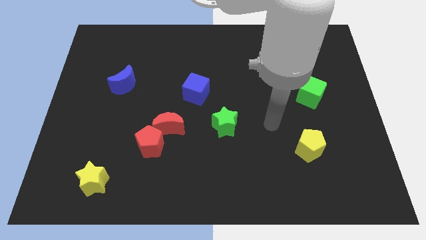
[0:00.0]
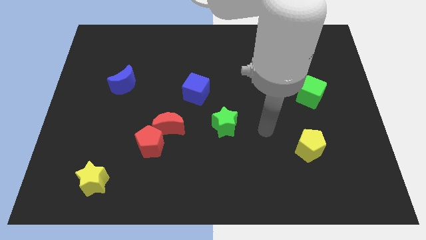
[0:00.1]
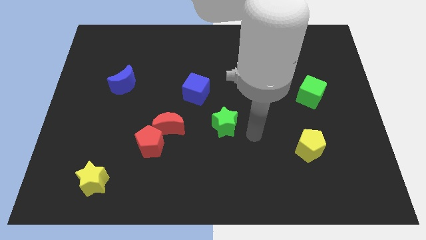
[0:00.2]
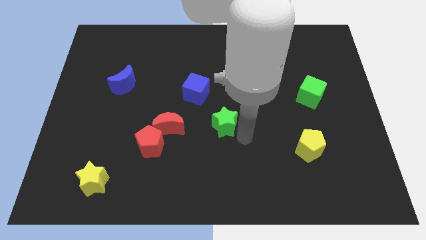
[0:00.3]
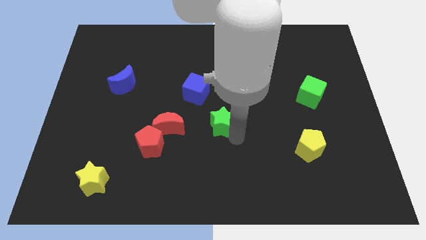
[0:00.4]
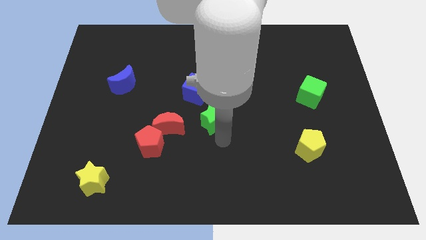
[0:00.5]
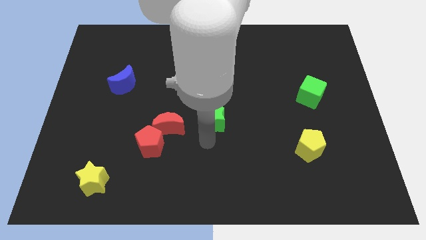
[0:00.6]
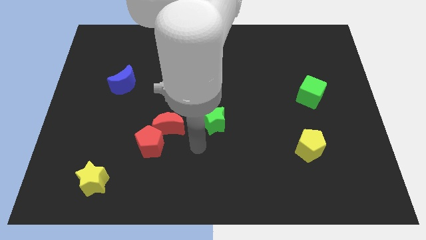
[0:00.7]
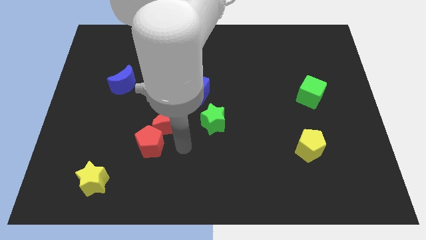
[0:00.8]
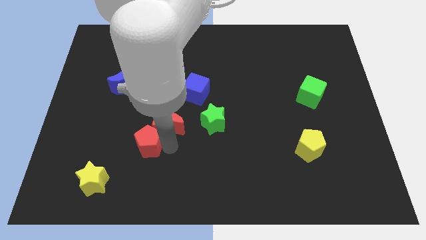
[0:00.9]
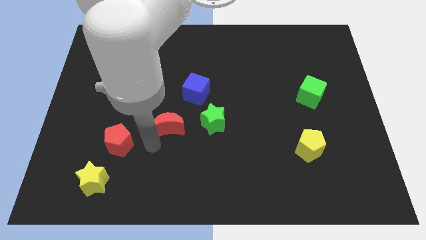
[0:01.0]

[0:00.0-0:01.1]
separate the red moon from the red pentagon

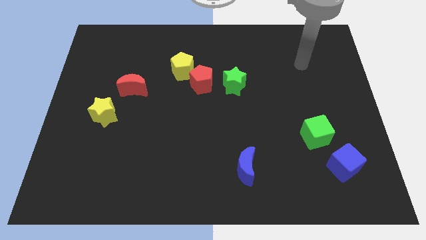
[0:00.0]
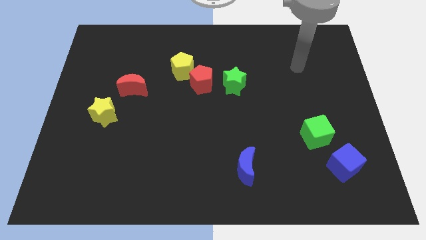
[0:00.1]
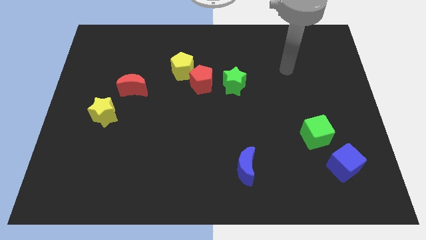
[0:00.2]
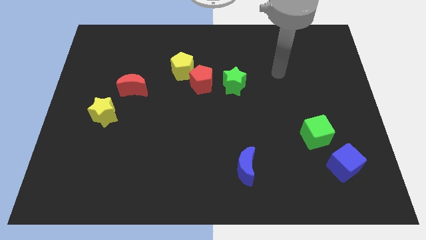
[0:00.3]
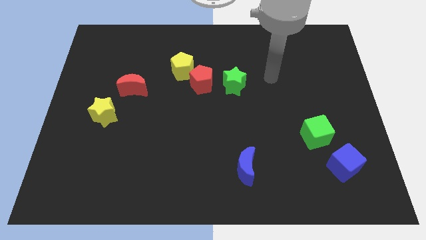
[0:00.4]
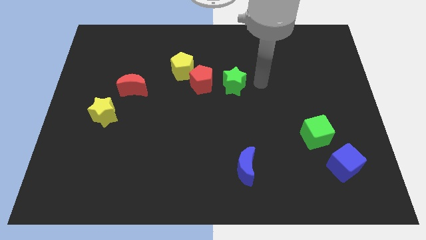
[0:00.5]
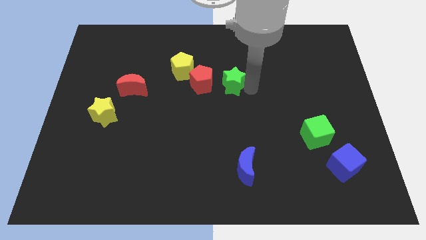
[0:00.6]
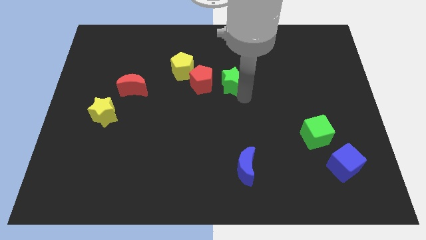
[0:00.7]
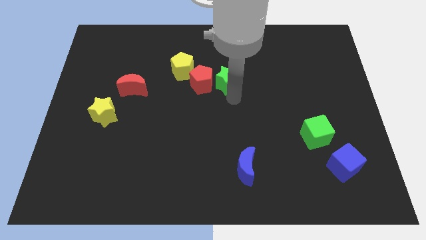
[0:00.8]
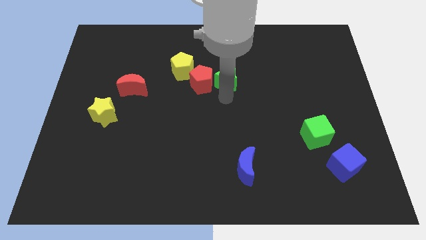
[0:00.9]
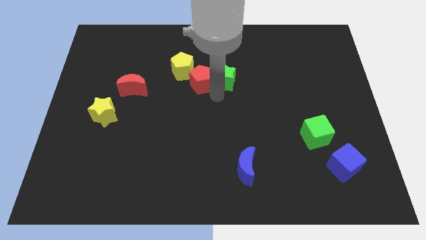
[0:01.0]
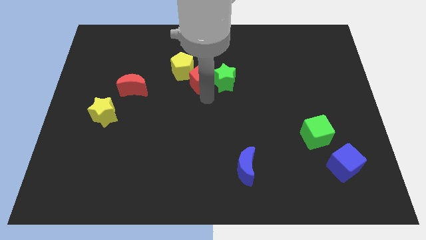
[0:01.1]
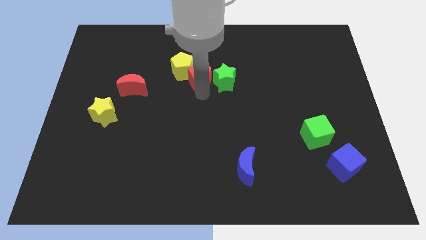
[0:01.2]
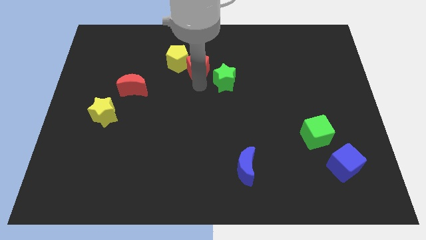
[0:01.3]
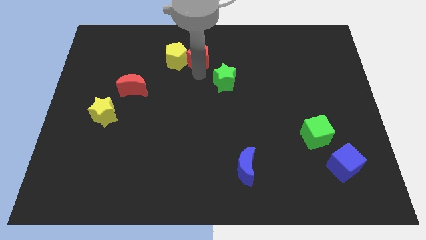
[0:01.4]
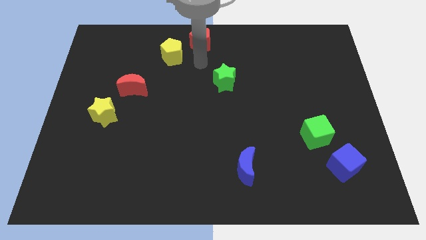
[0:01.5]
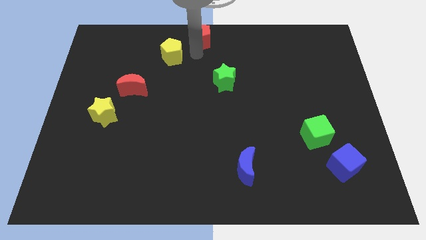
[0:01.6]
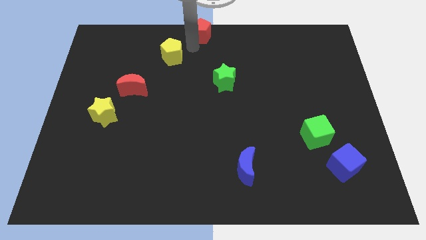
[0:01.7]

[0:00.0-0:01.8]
move the yellow pentagon away from the red pentagon

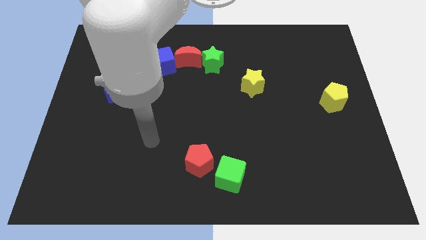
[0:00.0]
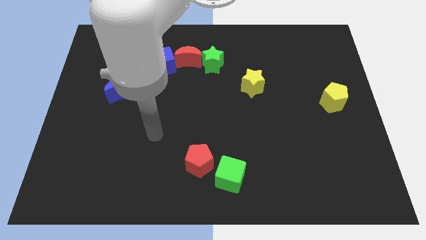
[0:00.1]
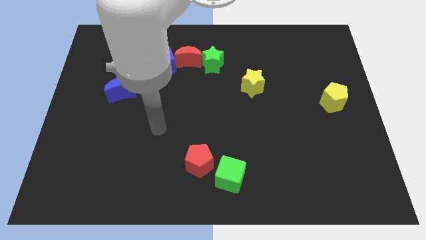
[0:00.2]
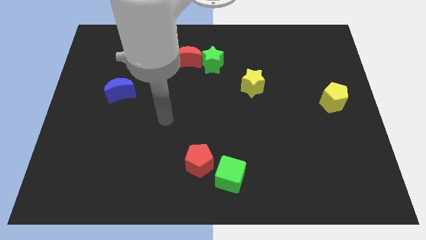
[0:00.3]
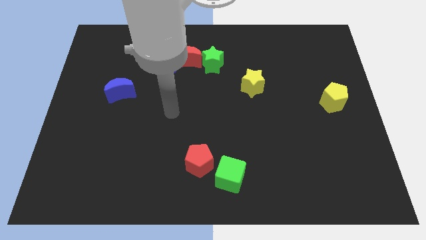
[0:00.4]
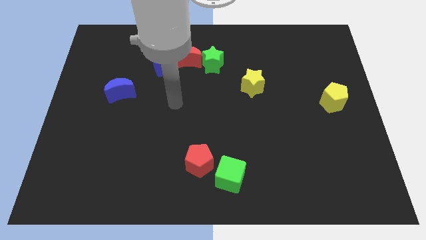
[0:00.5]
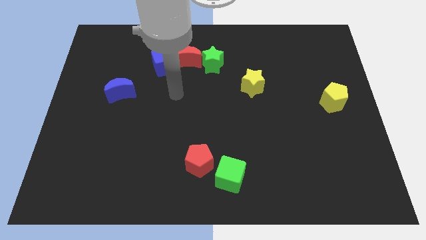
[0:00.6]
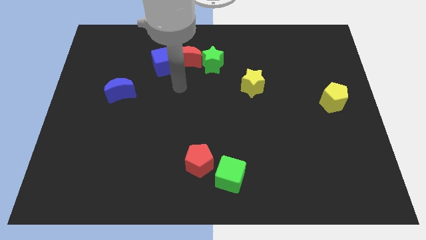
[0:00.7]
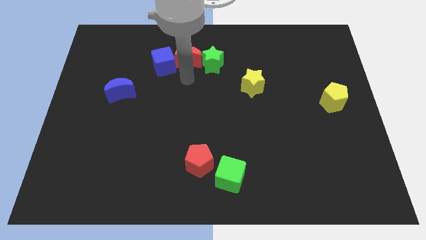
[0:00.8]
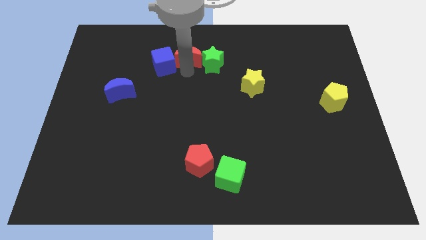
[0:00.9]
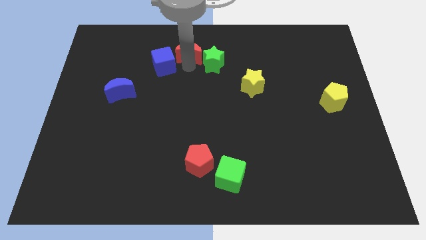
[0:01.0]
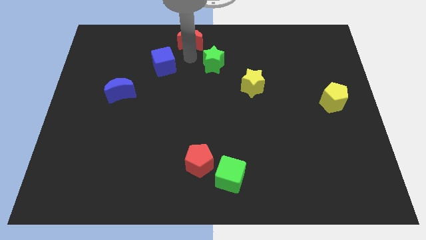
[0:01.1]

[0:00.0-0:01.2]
pull the green star apart from the red moon

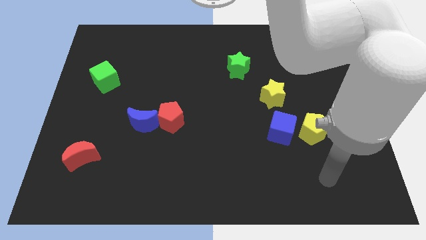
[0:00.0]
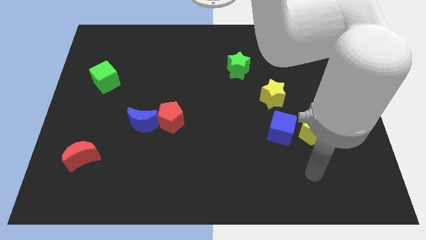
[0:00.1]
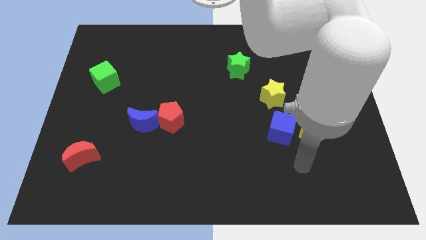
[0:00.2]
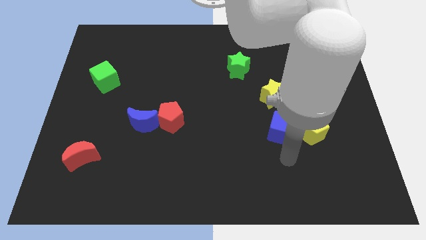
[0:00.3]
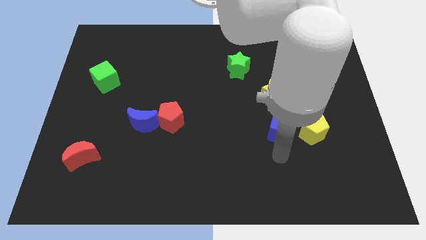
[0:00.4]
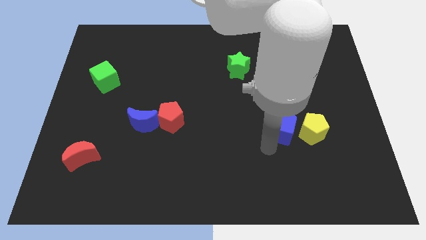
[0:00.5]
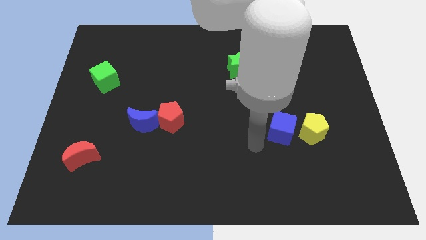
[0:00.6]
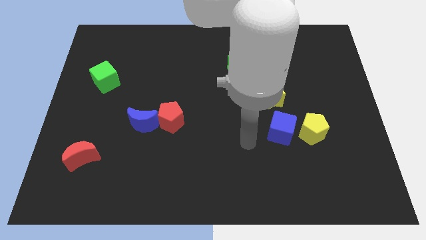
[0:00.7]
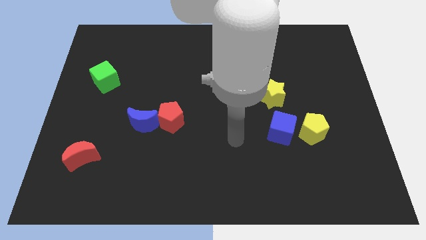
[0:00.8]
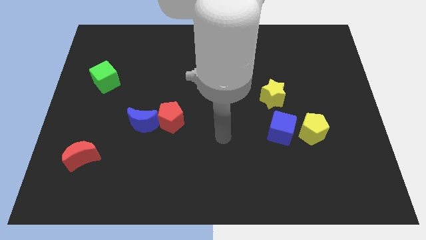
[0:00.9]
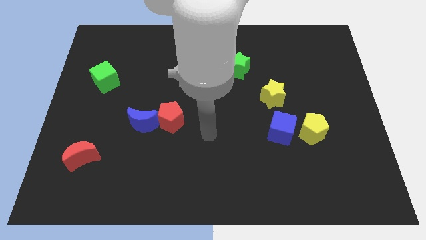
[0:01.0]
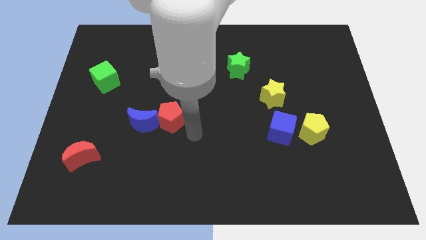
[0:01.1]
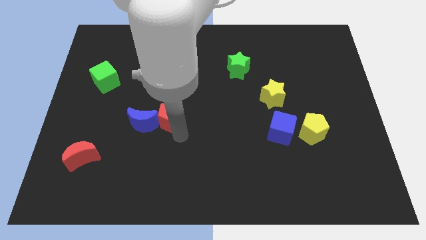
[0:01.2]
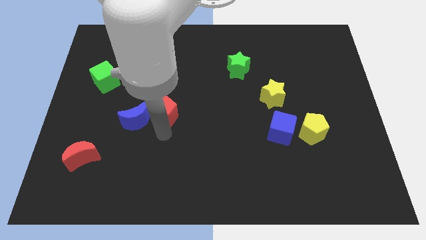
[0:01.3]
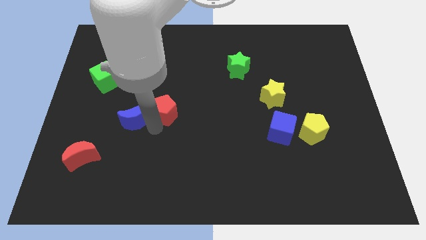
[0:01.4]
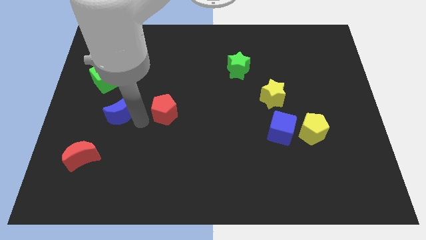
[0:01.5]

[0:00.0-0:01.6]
separate the red pentagon from the blue moon

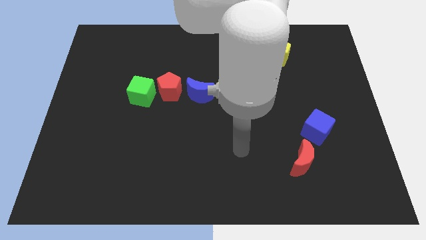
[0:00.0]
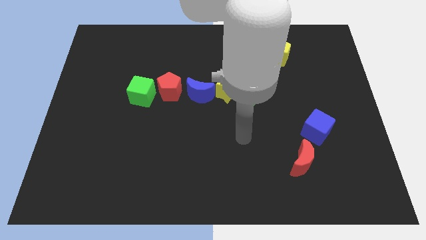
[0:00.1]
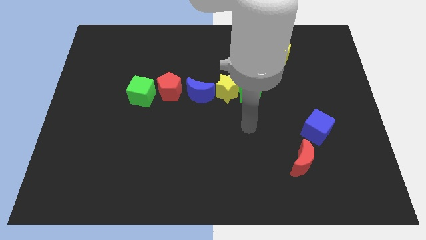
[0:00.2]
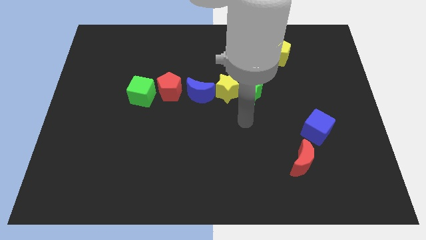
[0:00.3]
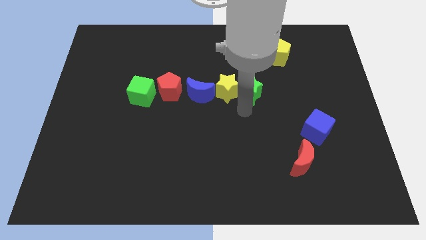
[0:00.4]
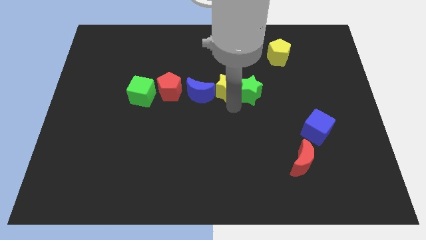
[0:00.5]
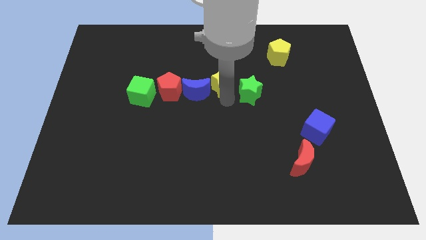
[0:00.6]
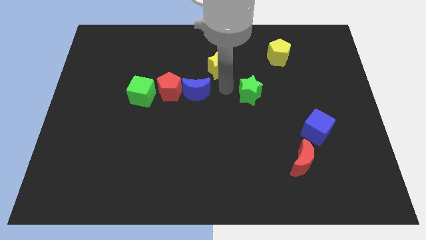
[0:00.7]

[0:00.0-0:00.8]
move the green star away from the yellow star

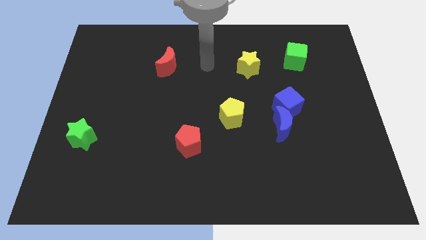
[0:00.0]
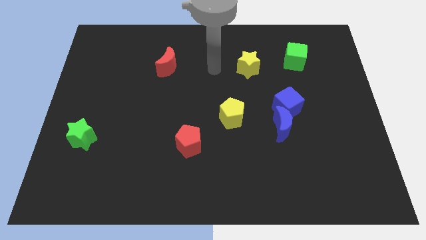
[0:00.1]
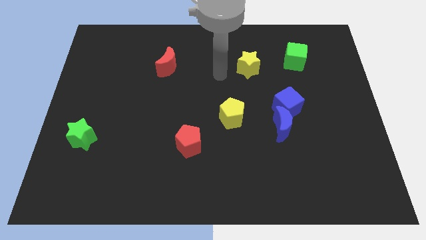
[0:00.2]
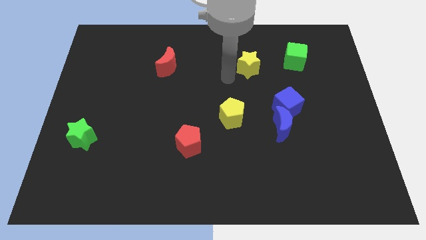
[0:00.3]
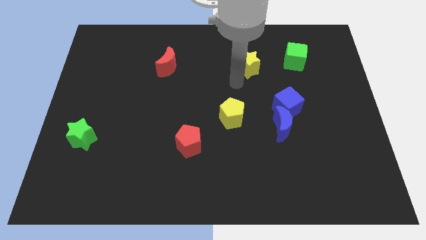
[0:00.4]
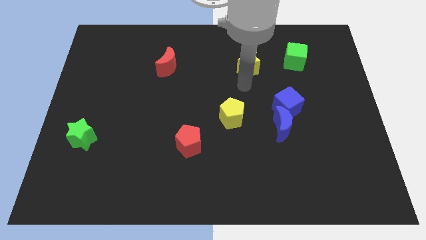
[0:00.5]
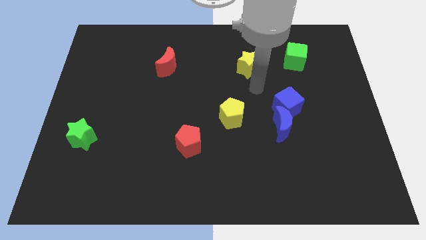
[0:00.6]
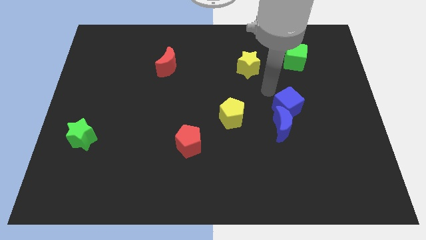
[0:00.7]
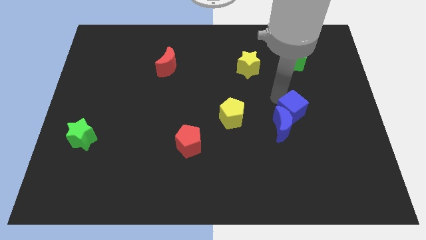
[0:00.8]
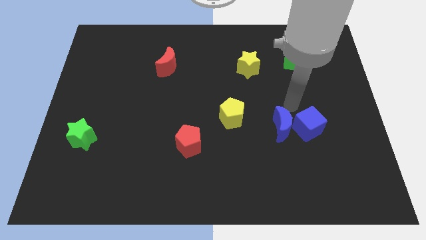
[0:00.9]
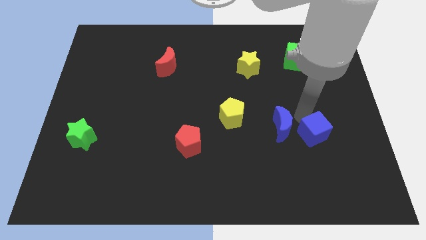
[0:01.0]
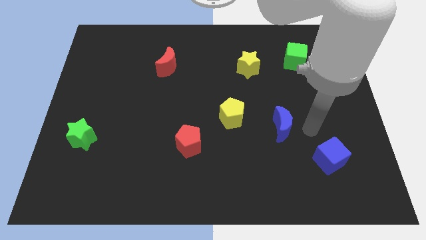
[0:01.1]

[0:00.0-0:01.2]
separate the blue moon from the blue cube

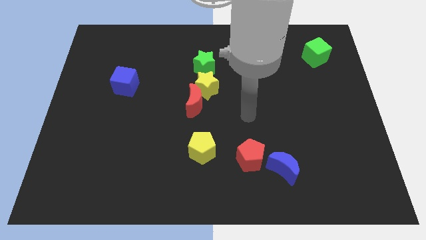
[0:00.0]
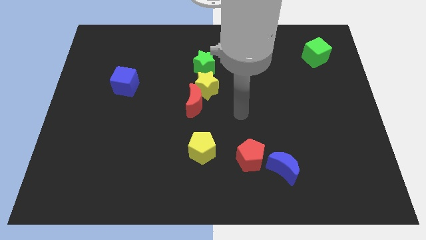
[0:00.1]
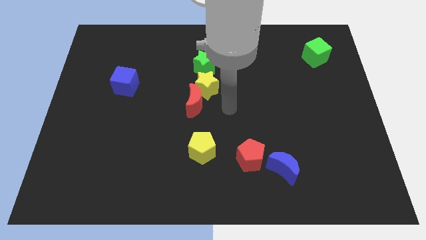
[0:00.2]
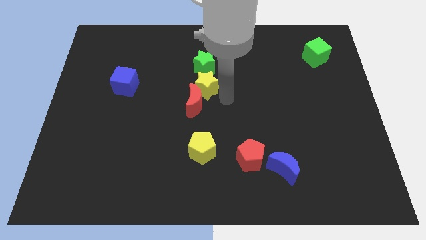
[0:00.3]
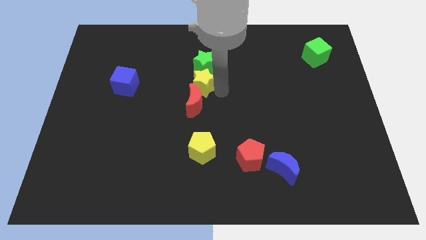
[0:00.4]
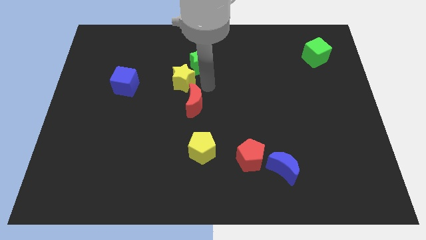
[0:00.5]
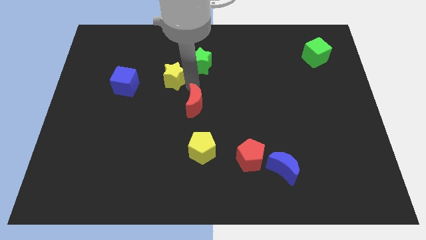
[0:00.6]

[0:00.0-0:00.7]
separate the red moon from the yellow star

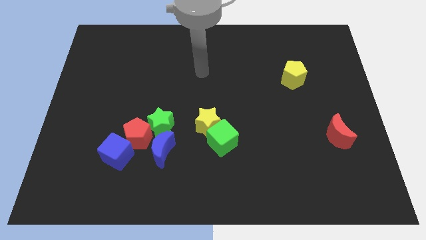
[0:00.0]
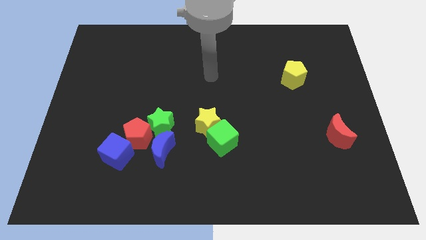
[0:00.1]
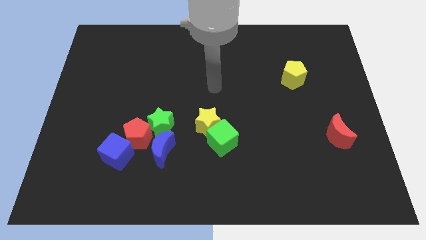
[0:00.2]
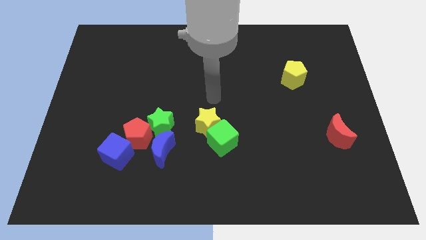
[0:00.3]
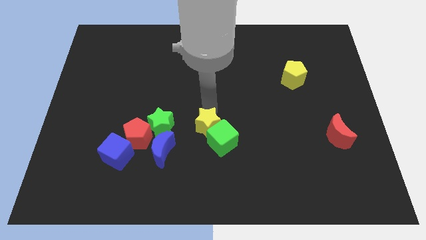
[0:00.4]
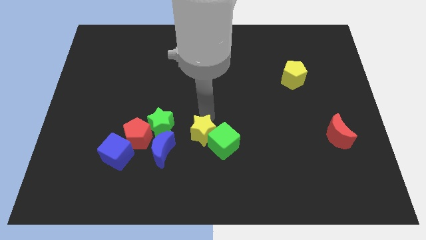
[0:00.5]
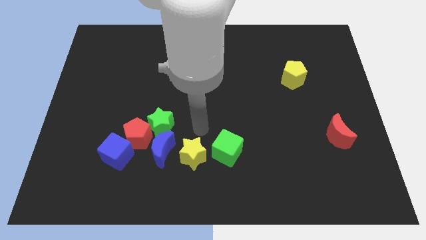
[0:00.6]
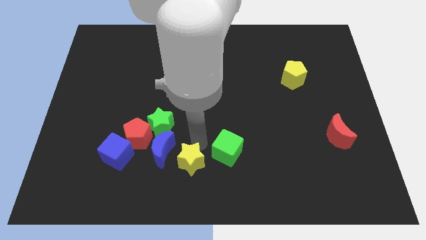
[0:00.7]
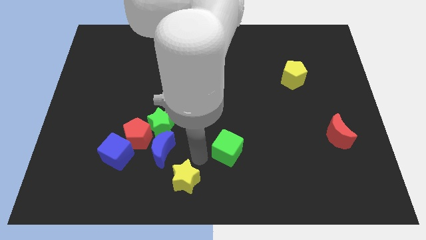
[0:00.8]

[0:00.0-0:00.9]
move the green cube away from the yellow star
